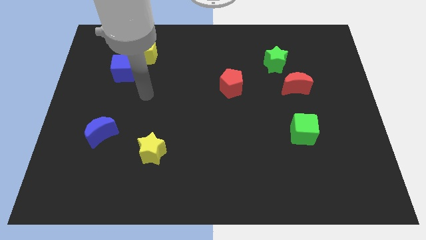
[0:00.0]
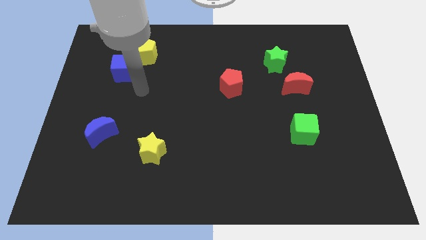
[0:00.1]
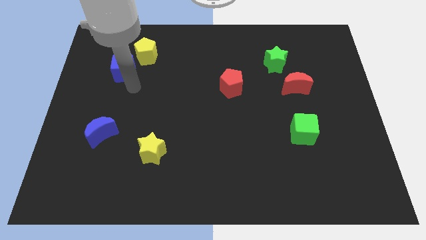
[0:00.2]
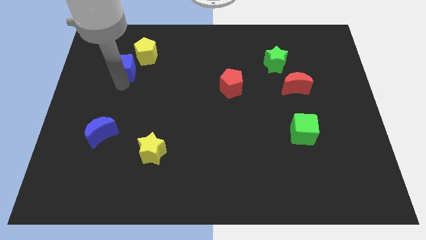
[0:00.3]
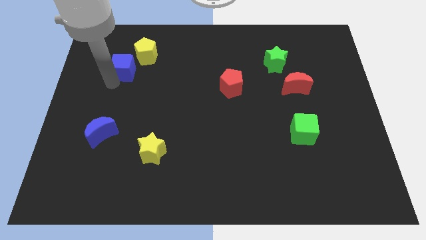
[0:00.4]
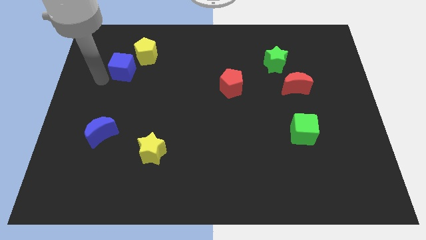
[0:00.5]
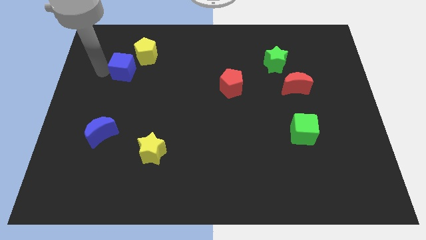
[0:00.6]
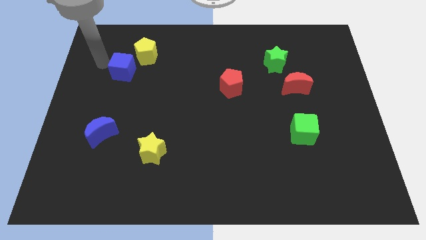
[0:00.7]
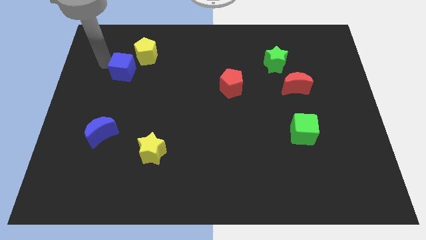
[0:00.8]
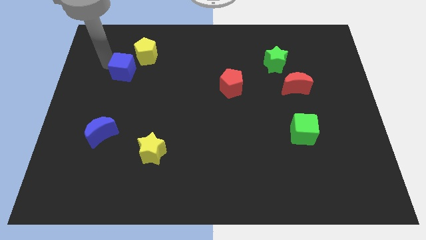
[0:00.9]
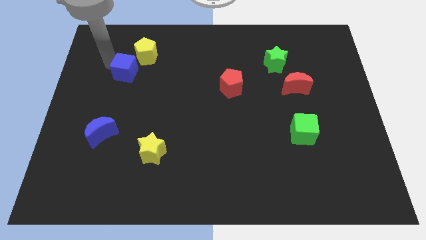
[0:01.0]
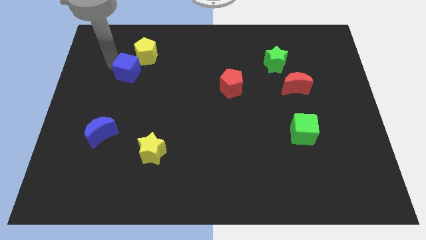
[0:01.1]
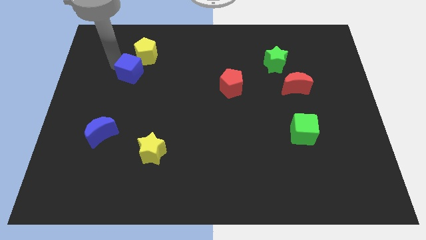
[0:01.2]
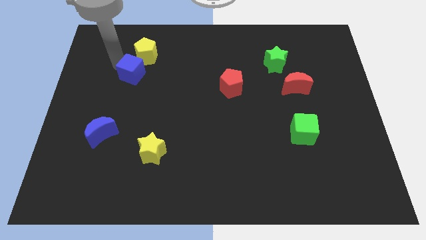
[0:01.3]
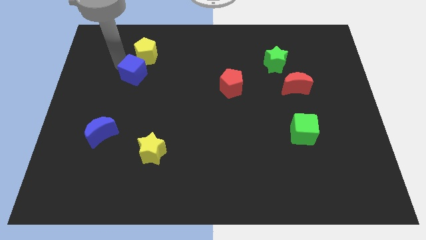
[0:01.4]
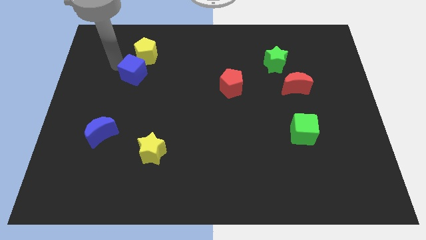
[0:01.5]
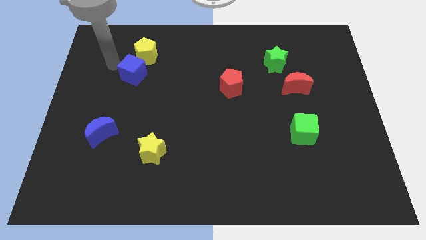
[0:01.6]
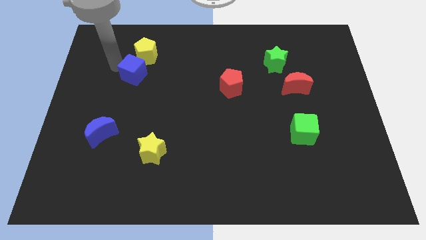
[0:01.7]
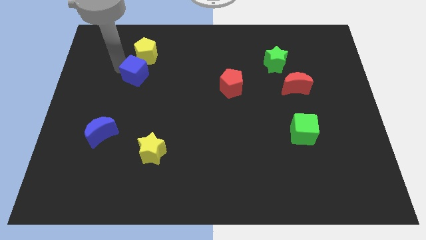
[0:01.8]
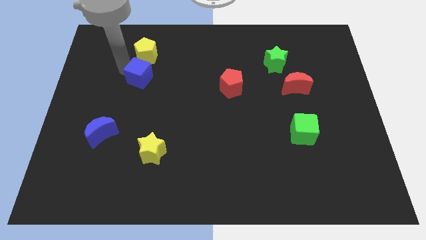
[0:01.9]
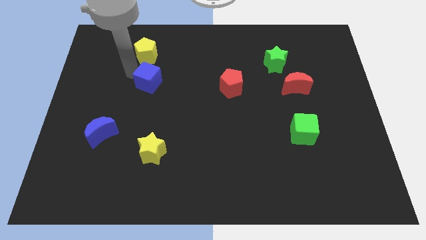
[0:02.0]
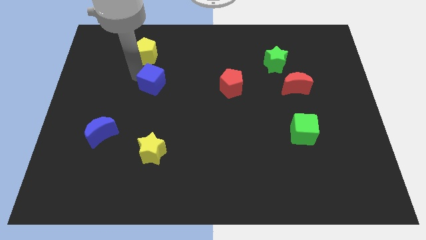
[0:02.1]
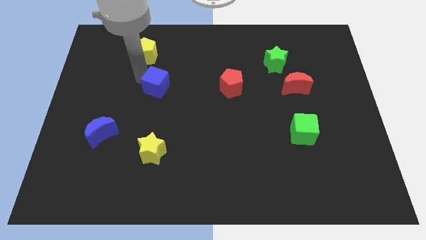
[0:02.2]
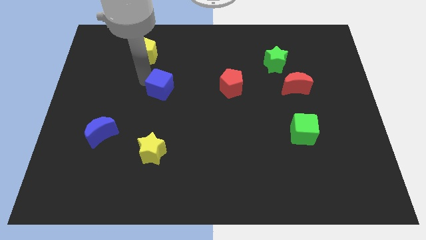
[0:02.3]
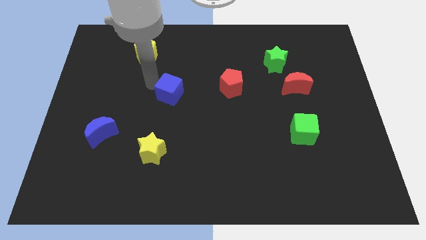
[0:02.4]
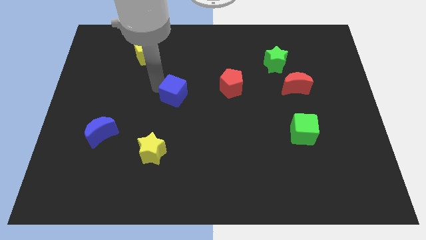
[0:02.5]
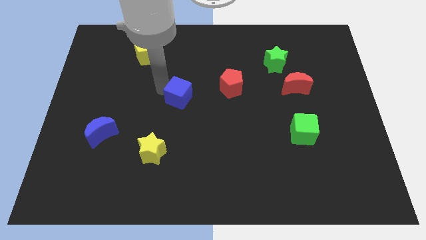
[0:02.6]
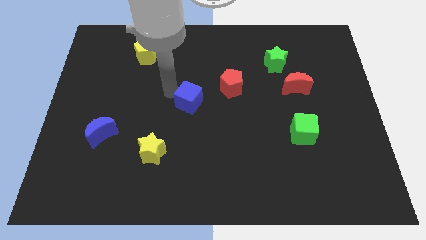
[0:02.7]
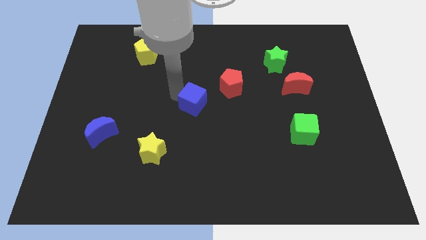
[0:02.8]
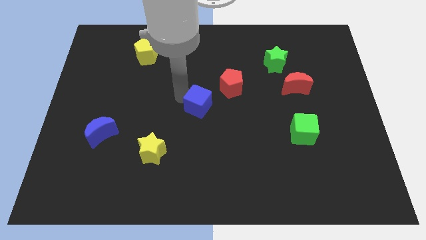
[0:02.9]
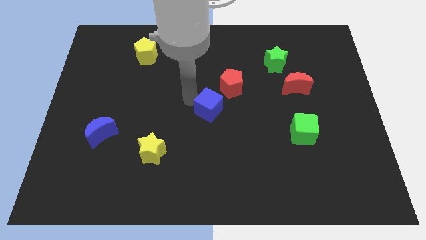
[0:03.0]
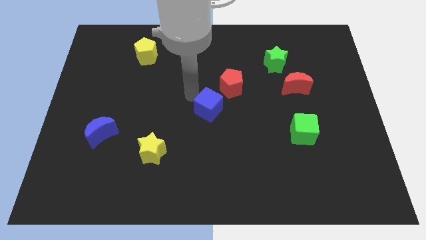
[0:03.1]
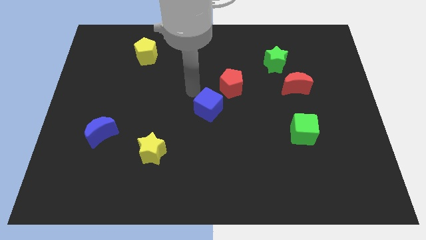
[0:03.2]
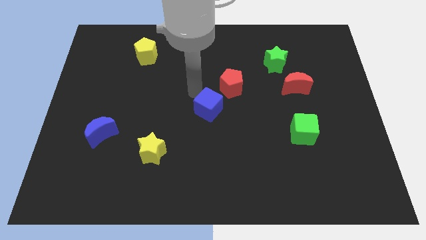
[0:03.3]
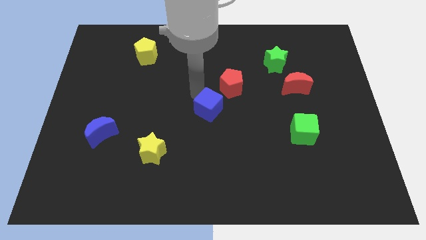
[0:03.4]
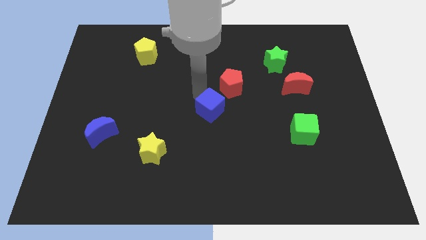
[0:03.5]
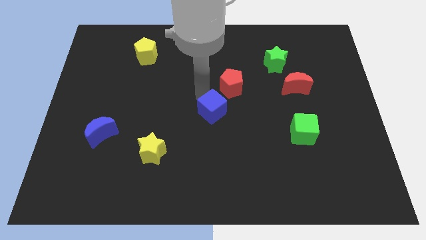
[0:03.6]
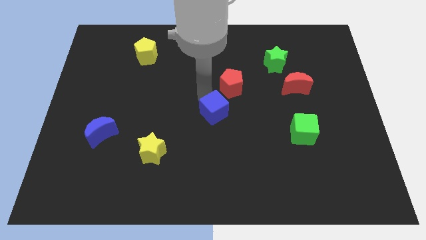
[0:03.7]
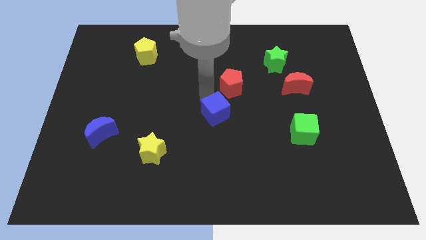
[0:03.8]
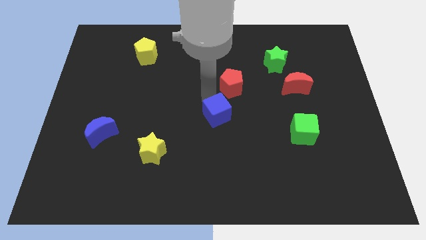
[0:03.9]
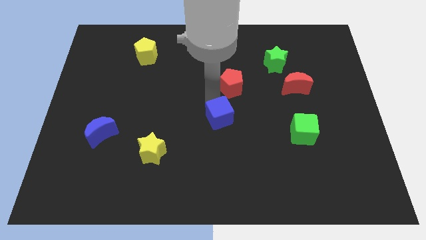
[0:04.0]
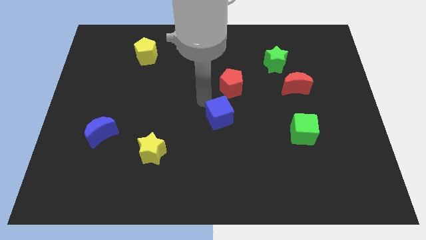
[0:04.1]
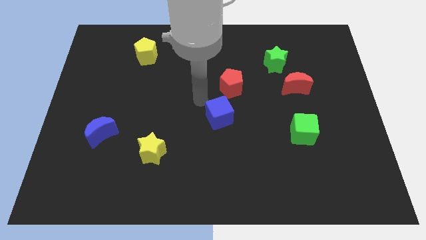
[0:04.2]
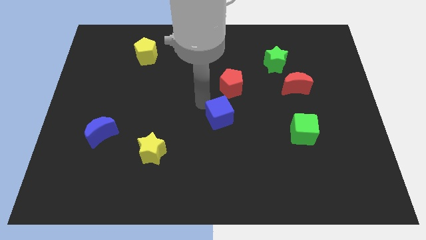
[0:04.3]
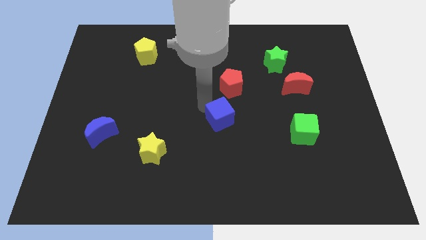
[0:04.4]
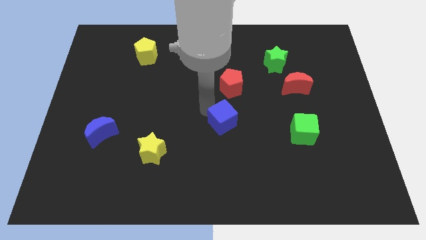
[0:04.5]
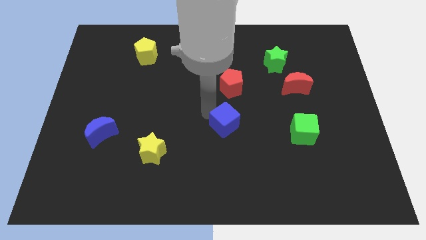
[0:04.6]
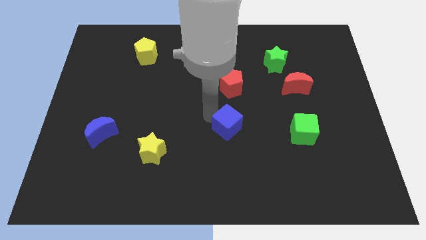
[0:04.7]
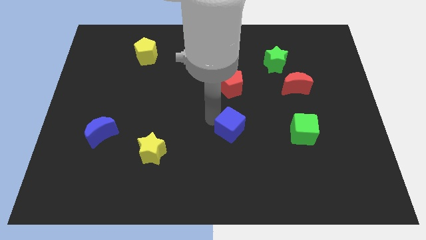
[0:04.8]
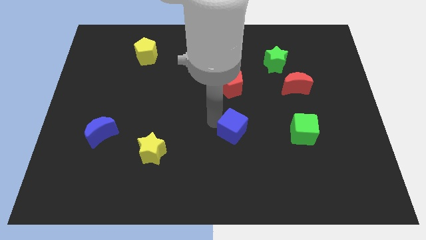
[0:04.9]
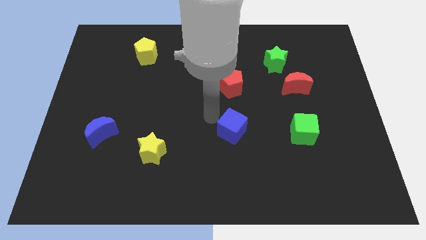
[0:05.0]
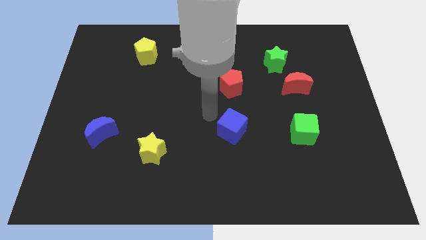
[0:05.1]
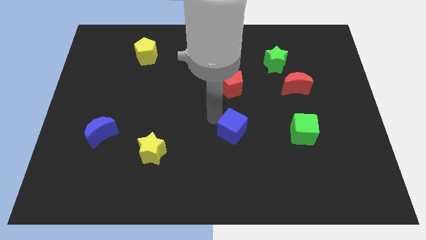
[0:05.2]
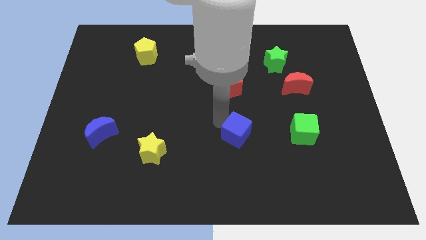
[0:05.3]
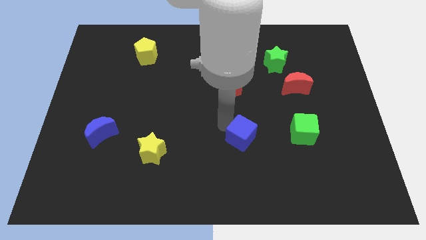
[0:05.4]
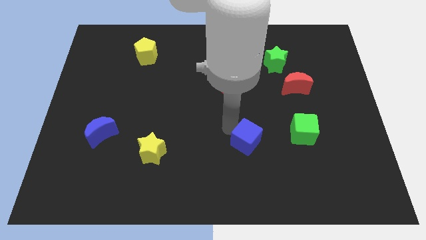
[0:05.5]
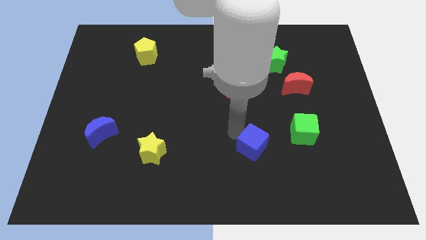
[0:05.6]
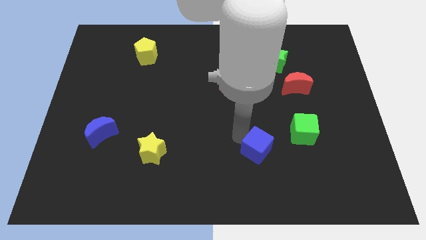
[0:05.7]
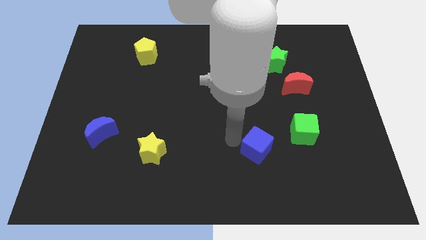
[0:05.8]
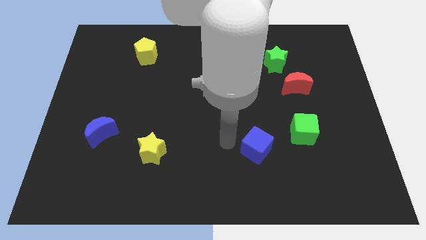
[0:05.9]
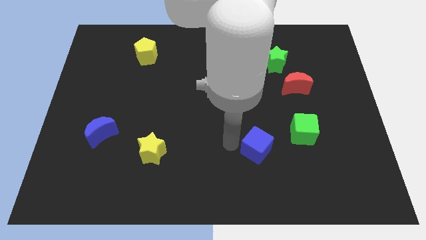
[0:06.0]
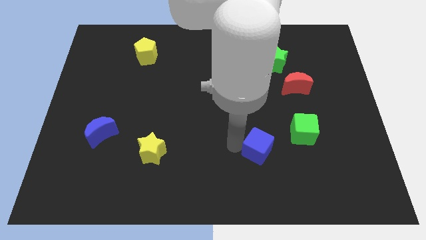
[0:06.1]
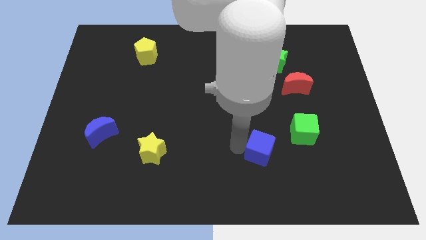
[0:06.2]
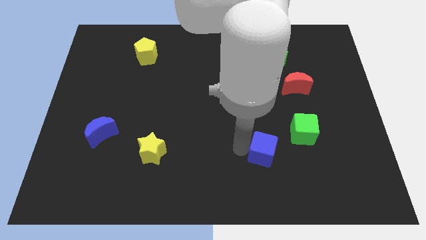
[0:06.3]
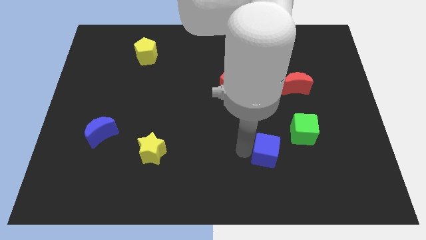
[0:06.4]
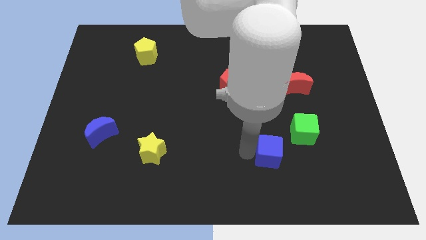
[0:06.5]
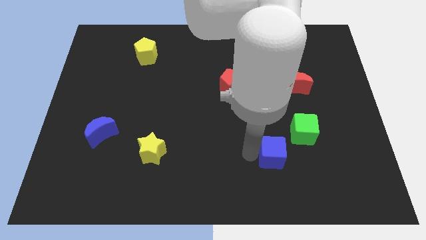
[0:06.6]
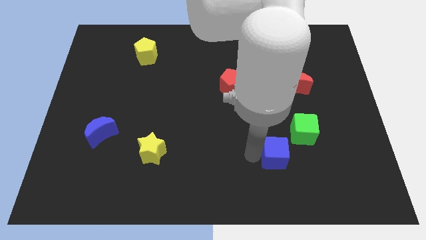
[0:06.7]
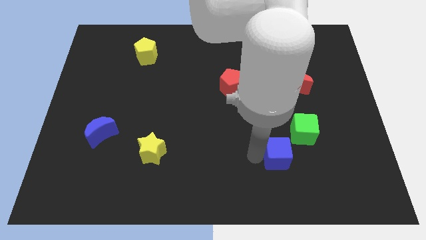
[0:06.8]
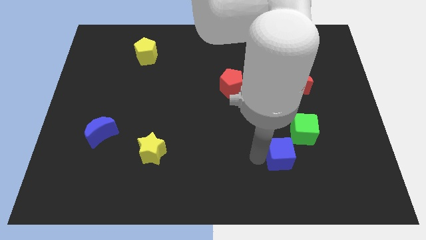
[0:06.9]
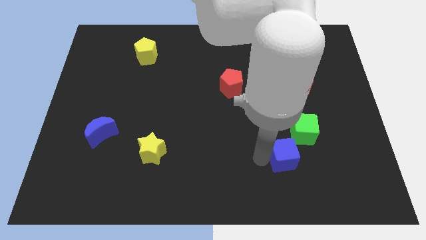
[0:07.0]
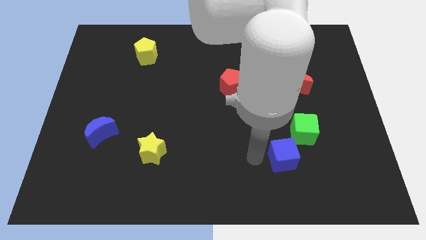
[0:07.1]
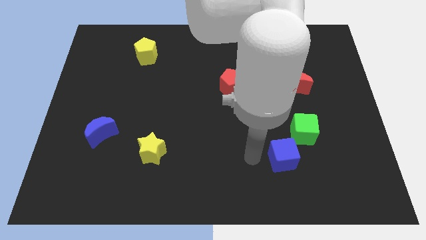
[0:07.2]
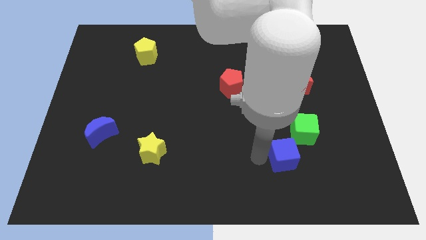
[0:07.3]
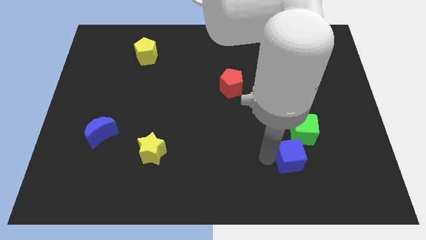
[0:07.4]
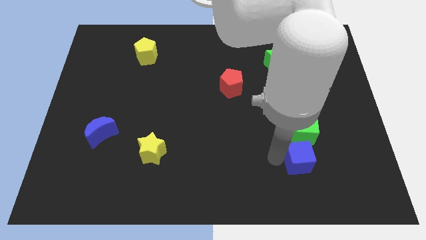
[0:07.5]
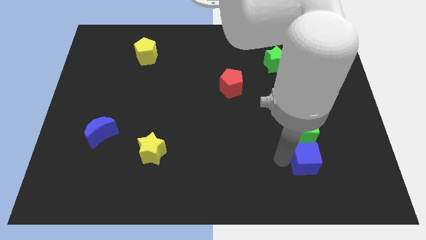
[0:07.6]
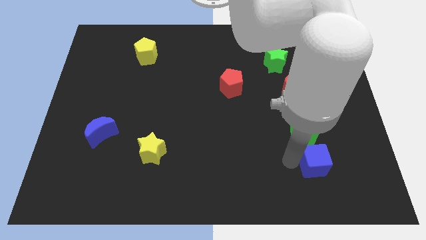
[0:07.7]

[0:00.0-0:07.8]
put the blue cube diagonally down and to the right of the green cube
